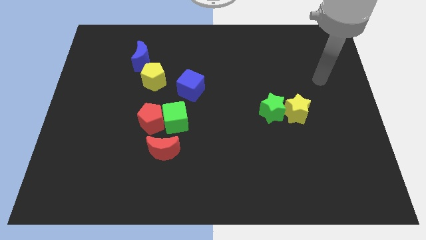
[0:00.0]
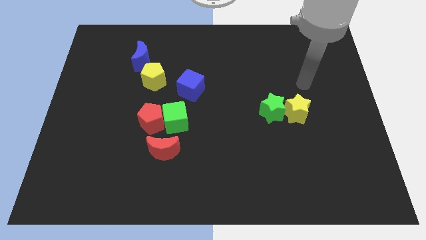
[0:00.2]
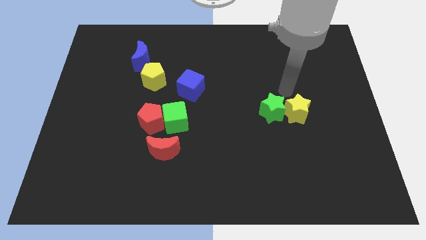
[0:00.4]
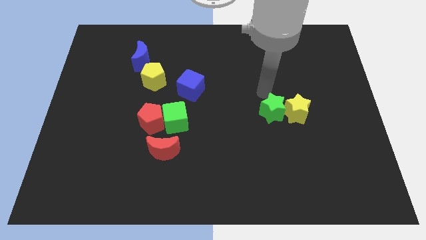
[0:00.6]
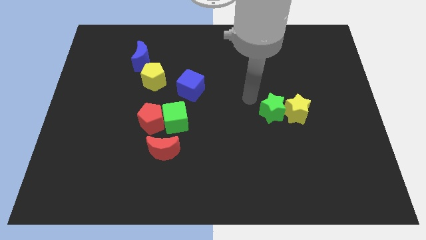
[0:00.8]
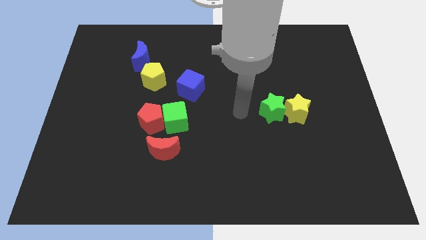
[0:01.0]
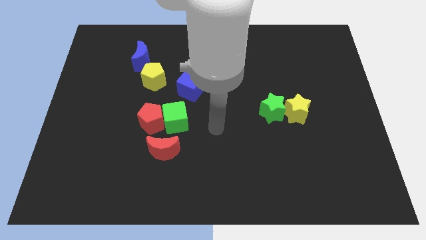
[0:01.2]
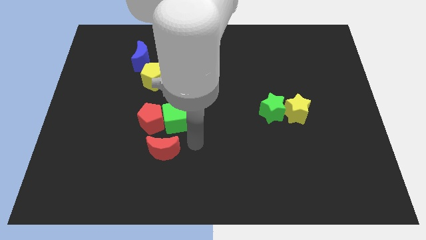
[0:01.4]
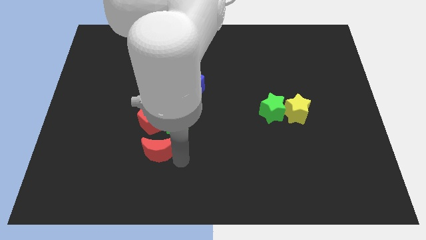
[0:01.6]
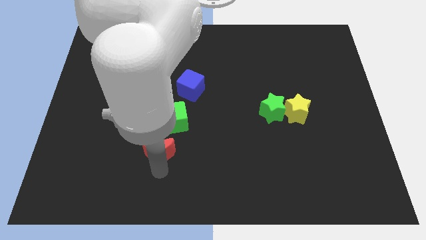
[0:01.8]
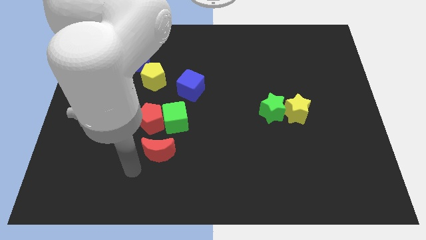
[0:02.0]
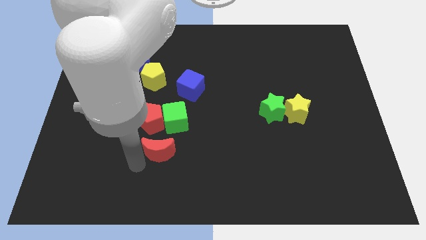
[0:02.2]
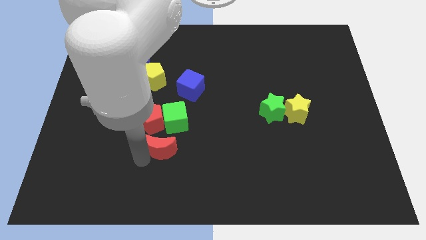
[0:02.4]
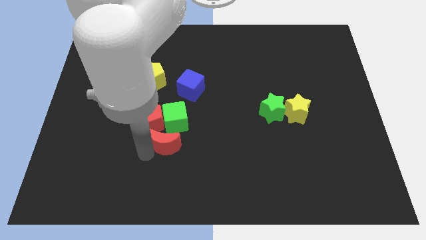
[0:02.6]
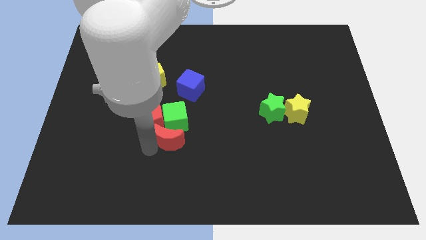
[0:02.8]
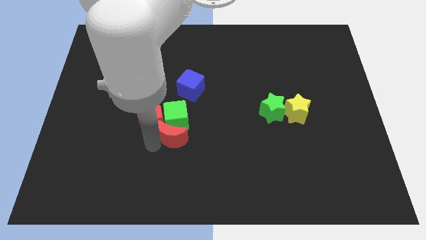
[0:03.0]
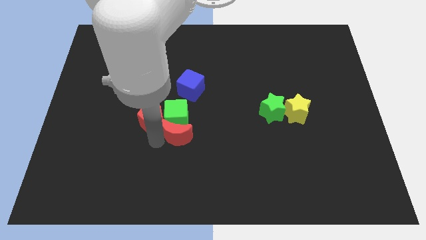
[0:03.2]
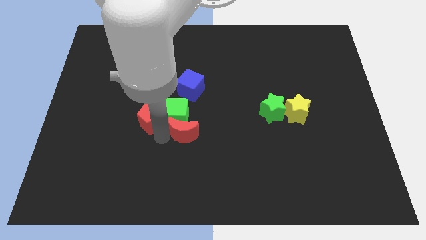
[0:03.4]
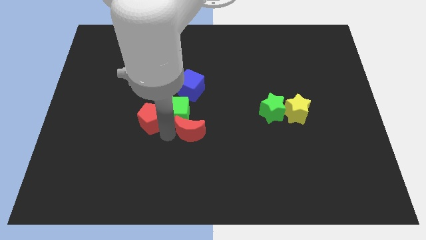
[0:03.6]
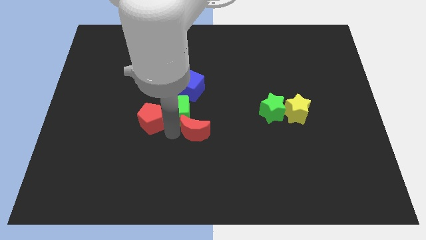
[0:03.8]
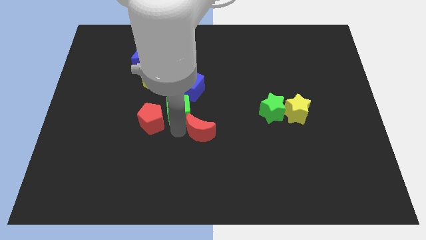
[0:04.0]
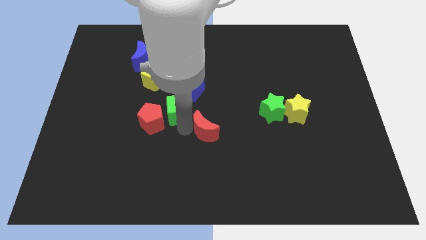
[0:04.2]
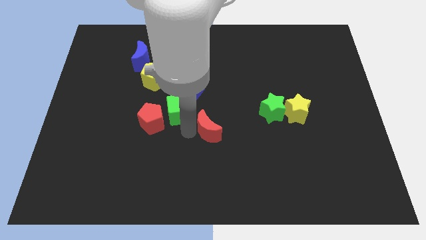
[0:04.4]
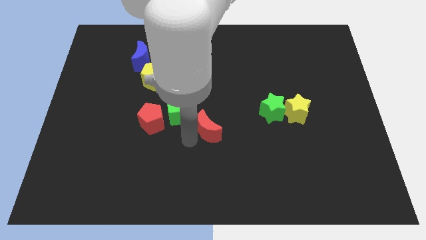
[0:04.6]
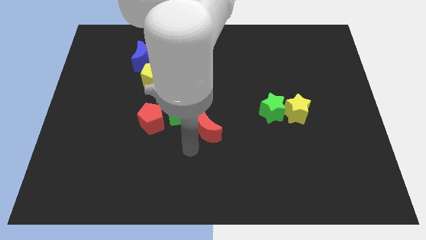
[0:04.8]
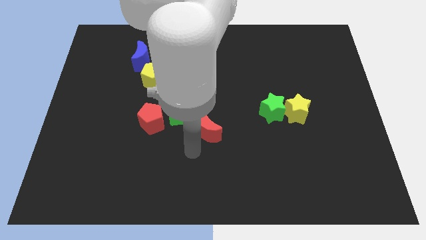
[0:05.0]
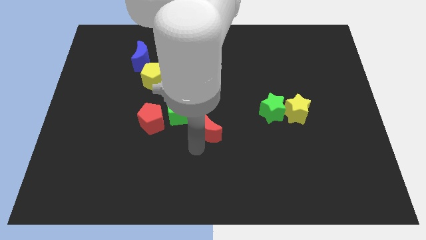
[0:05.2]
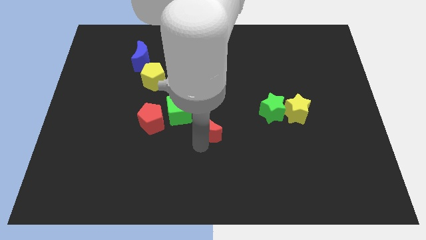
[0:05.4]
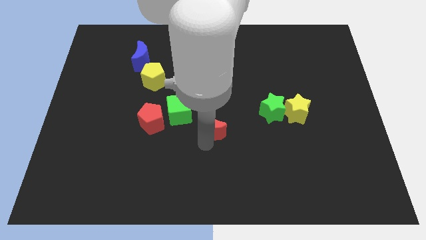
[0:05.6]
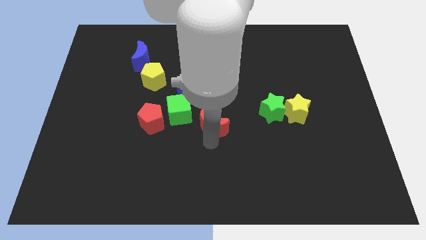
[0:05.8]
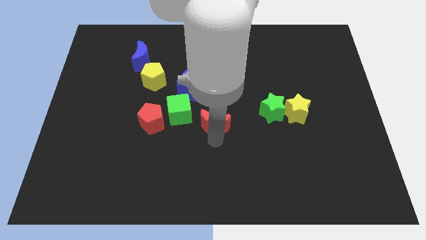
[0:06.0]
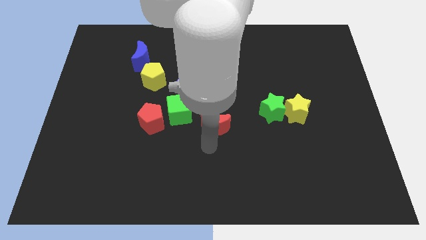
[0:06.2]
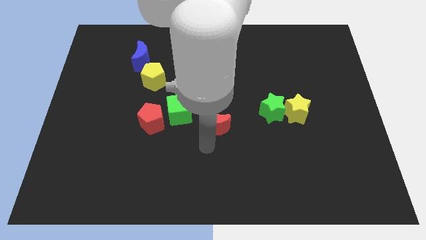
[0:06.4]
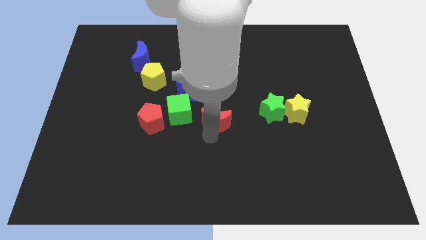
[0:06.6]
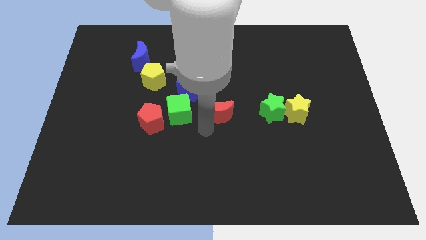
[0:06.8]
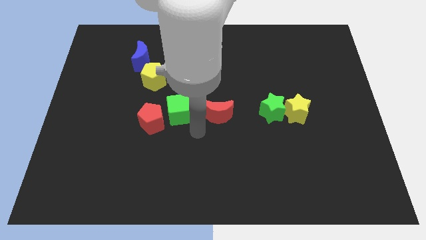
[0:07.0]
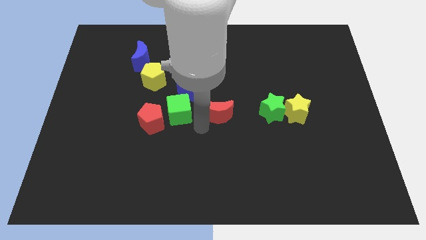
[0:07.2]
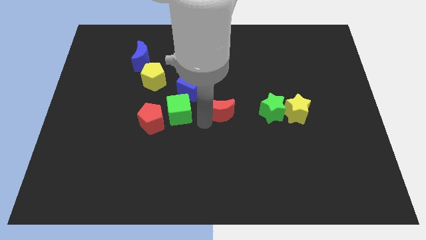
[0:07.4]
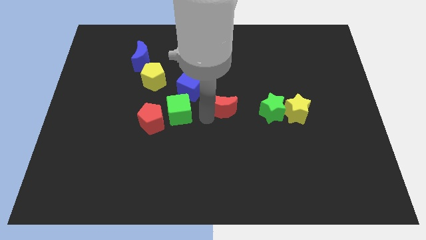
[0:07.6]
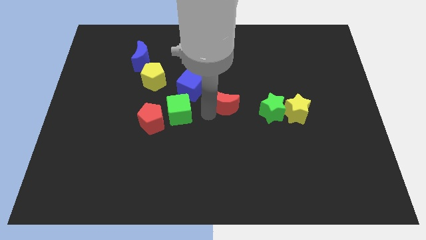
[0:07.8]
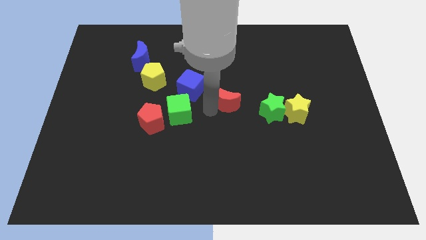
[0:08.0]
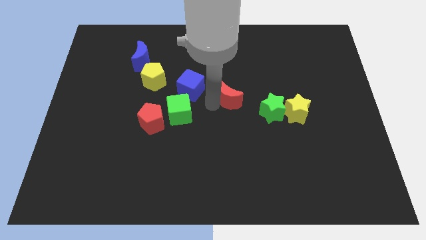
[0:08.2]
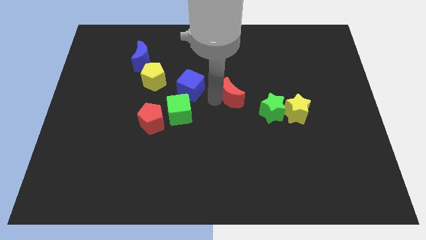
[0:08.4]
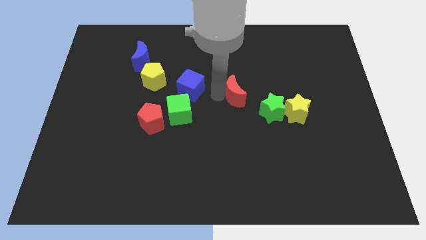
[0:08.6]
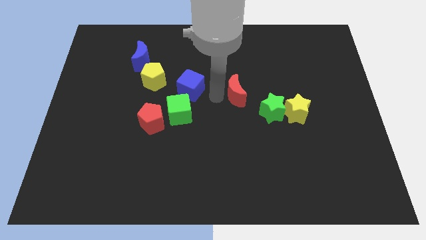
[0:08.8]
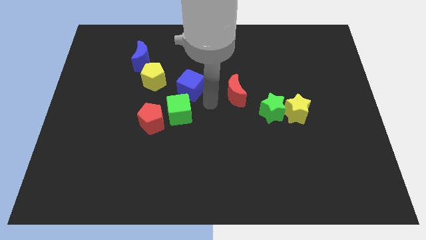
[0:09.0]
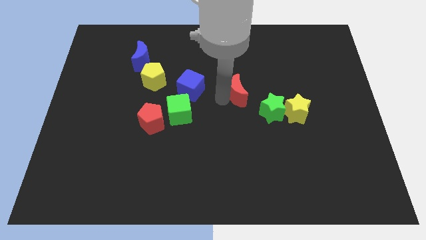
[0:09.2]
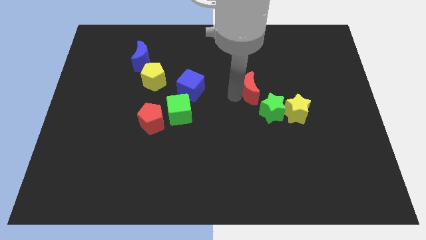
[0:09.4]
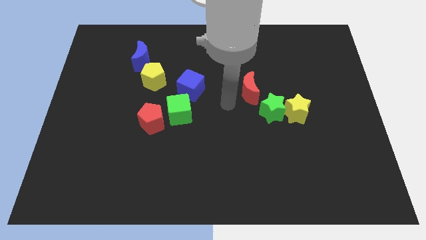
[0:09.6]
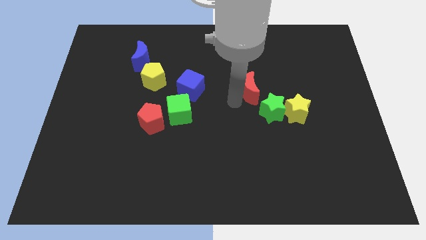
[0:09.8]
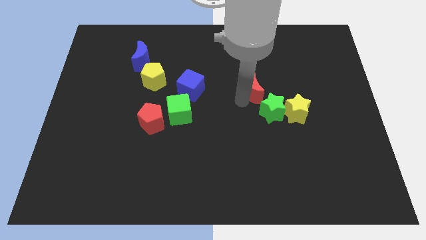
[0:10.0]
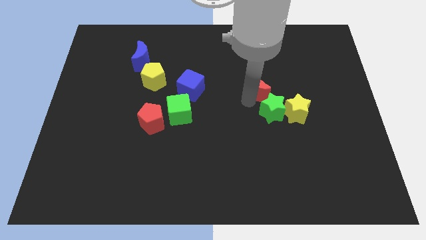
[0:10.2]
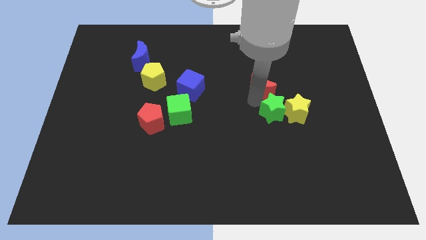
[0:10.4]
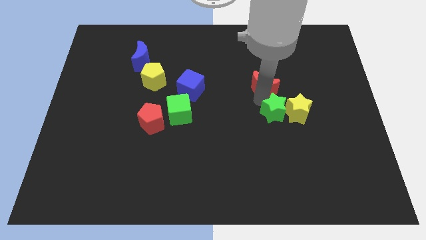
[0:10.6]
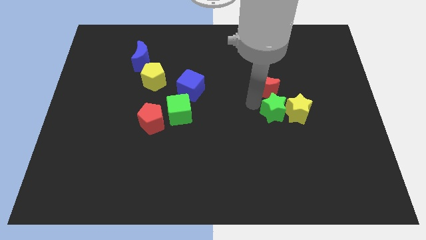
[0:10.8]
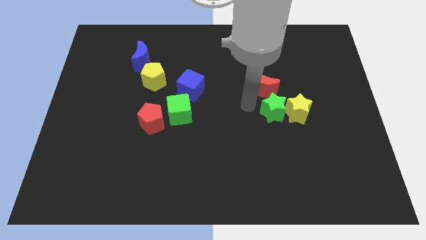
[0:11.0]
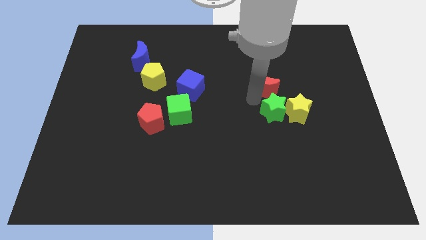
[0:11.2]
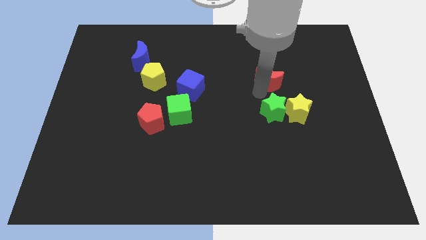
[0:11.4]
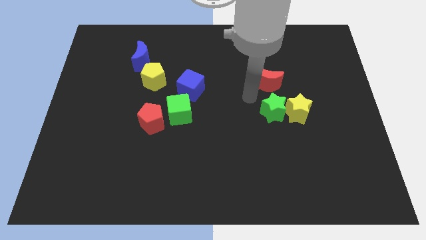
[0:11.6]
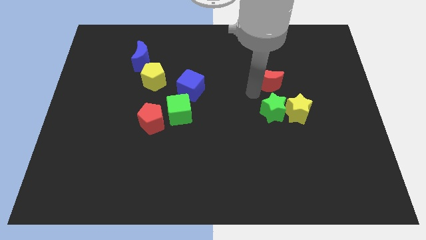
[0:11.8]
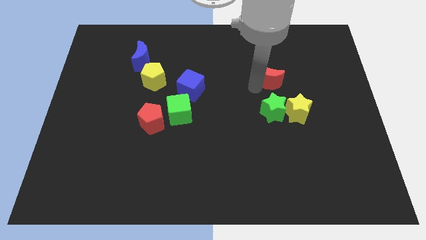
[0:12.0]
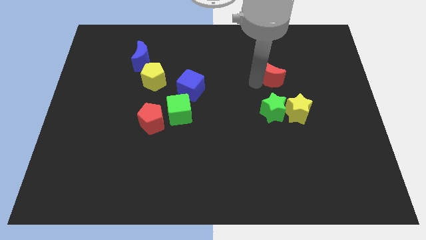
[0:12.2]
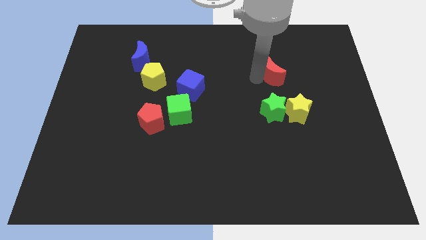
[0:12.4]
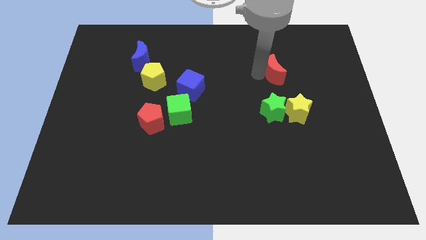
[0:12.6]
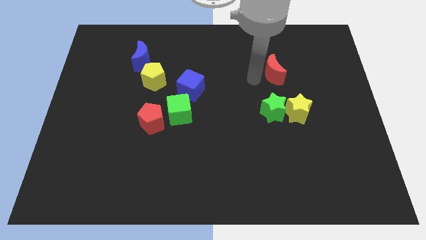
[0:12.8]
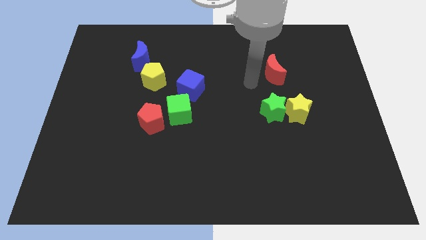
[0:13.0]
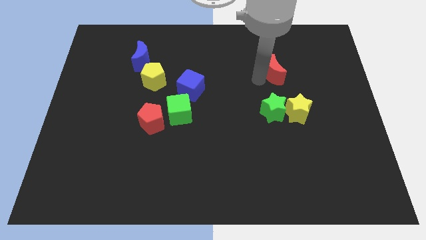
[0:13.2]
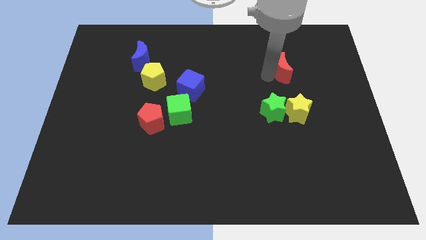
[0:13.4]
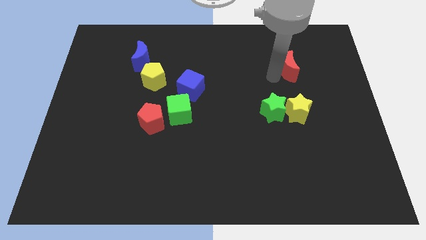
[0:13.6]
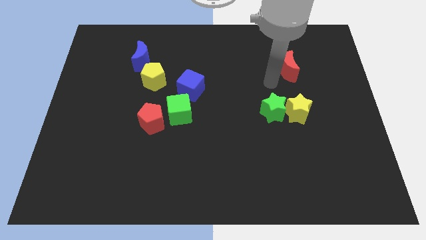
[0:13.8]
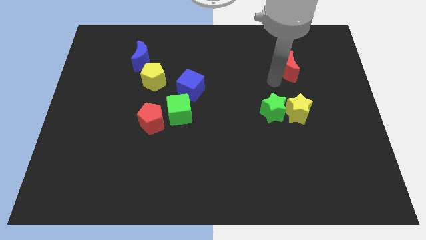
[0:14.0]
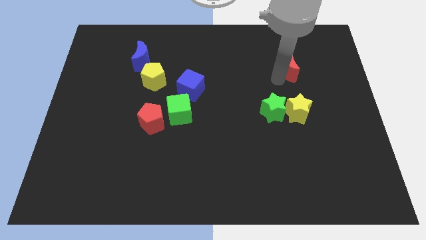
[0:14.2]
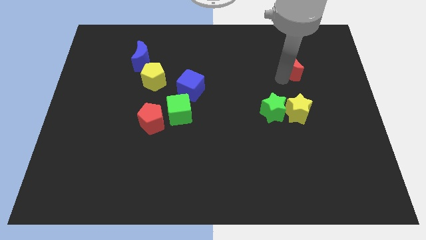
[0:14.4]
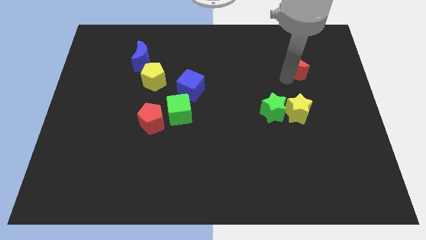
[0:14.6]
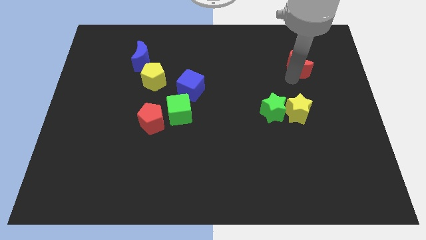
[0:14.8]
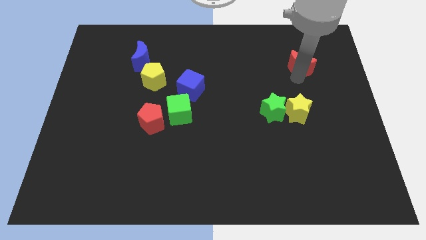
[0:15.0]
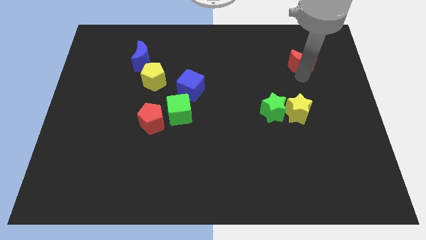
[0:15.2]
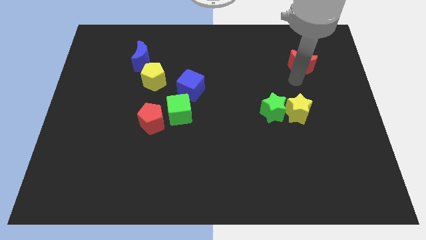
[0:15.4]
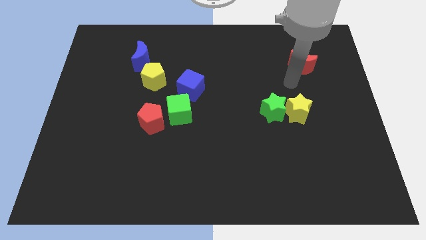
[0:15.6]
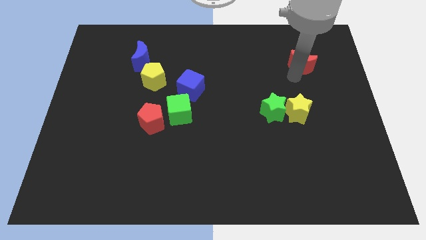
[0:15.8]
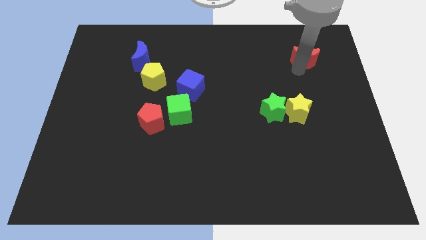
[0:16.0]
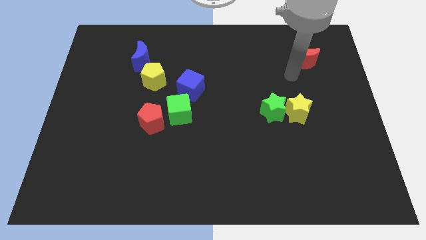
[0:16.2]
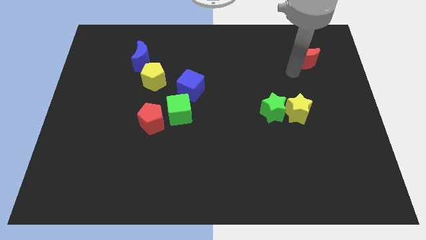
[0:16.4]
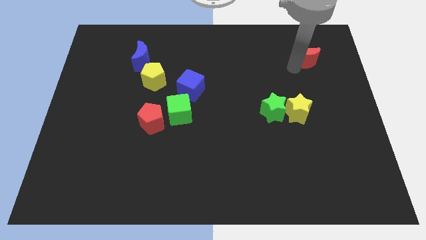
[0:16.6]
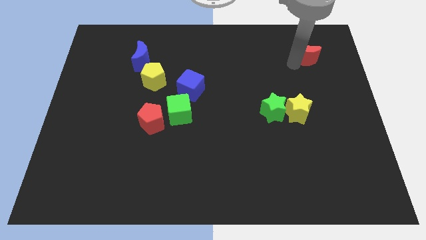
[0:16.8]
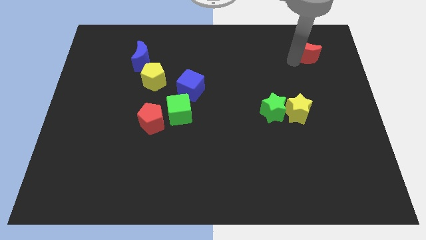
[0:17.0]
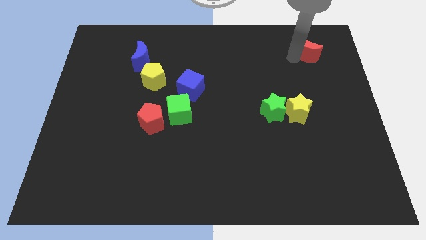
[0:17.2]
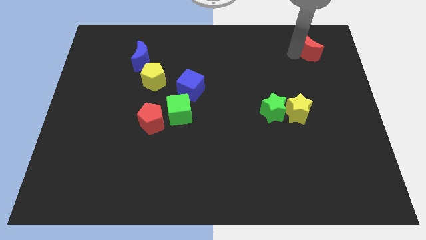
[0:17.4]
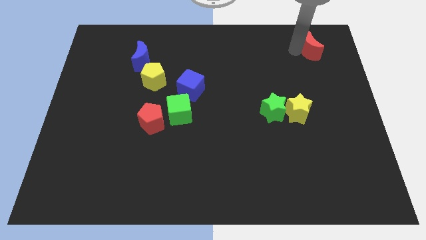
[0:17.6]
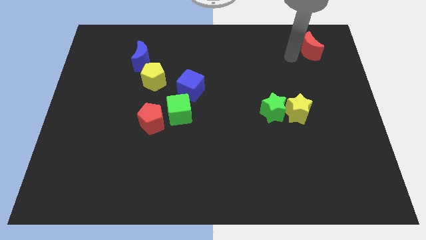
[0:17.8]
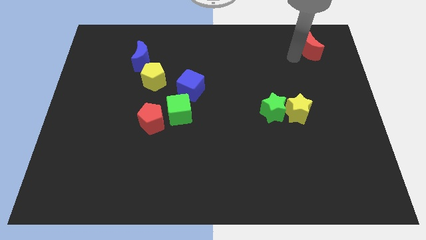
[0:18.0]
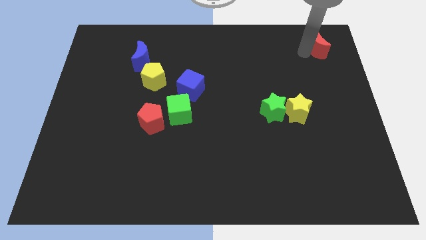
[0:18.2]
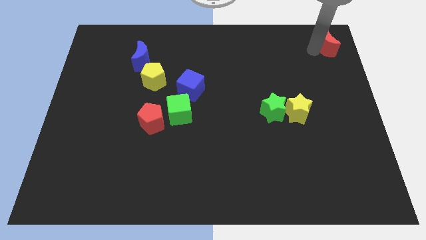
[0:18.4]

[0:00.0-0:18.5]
move the red moon to the upper right corner
